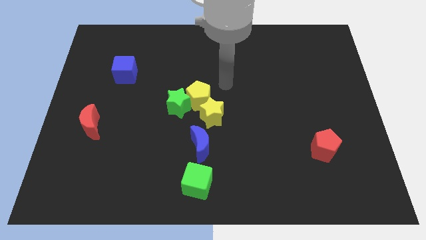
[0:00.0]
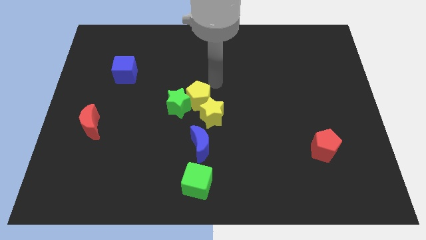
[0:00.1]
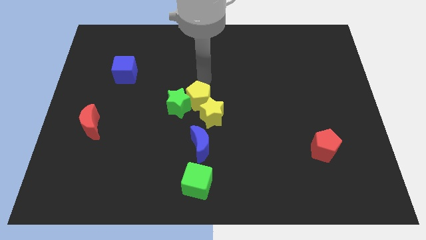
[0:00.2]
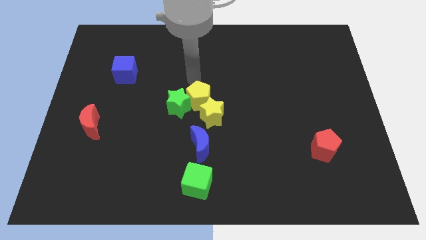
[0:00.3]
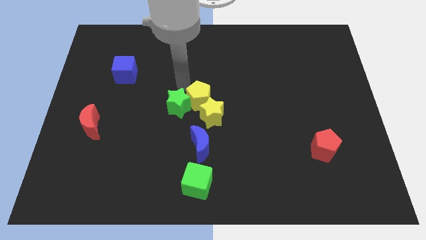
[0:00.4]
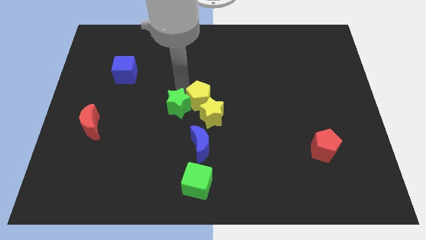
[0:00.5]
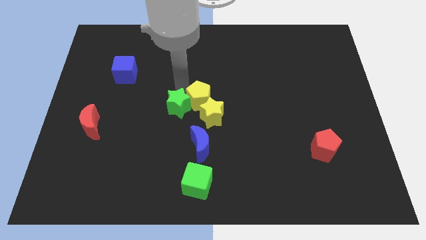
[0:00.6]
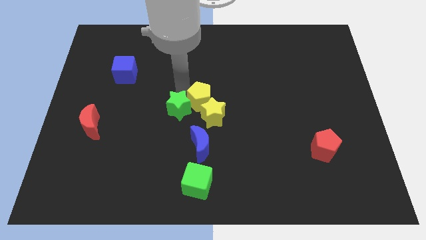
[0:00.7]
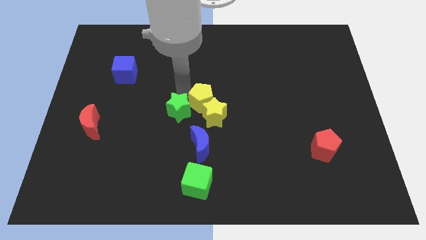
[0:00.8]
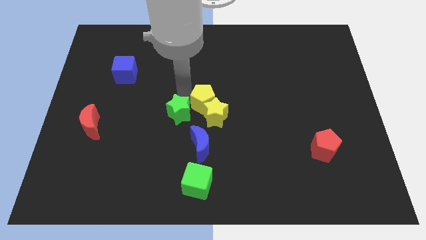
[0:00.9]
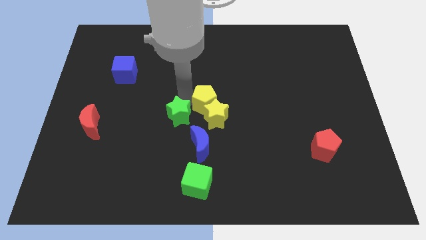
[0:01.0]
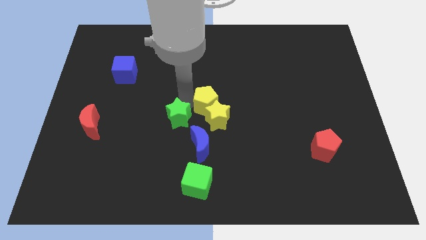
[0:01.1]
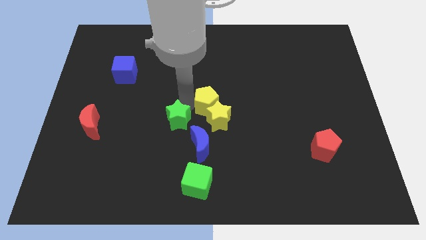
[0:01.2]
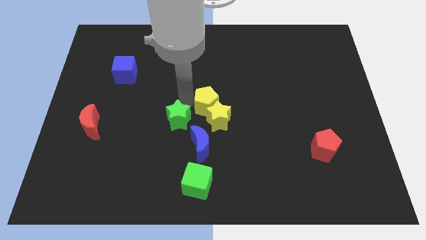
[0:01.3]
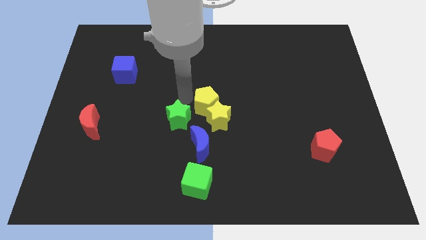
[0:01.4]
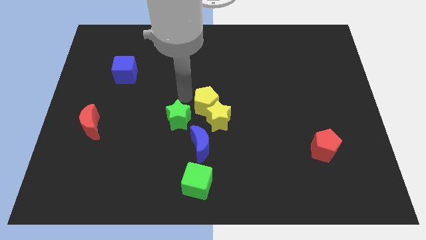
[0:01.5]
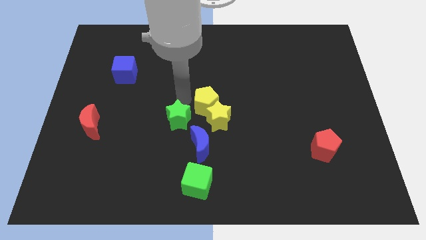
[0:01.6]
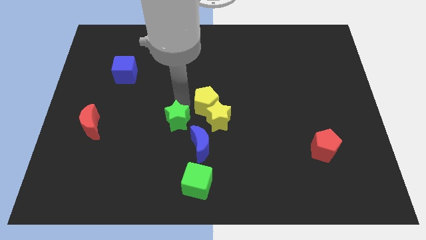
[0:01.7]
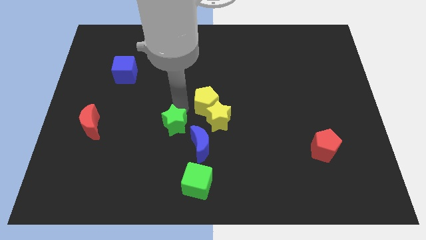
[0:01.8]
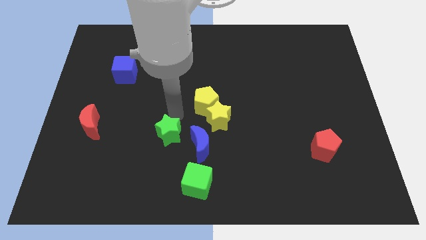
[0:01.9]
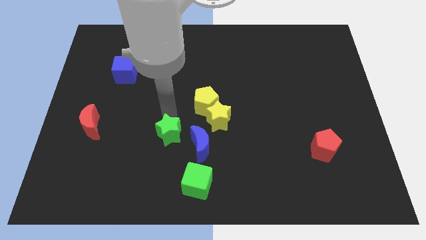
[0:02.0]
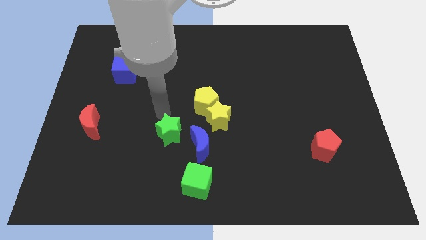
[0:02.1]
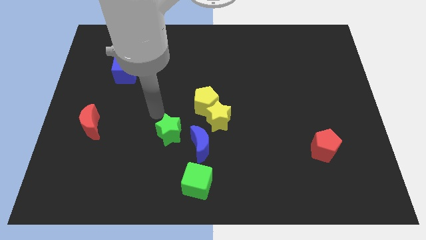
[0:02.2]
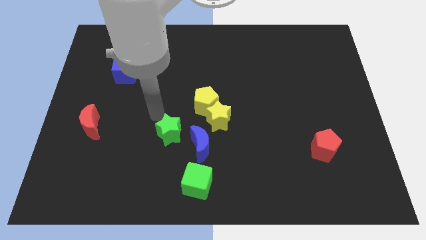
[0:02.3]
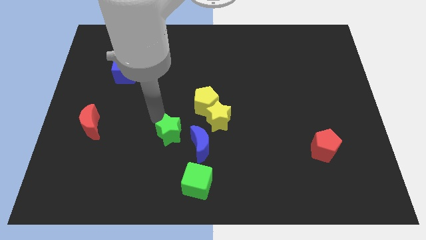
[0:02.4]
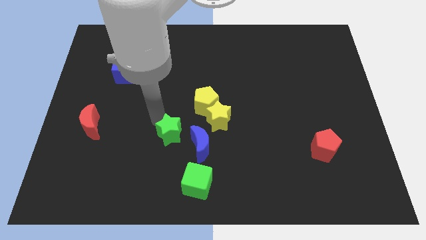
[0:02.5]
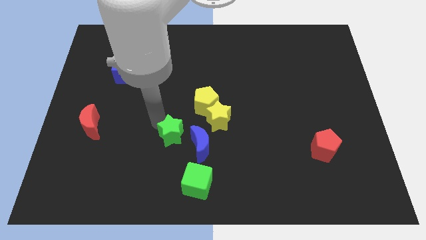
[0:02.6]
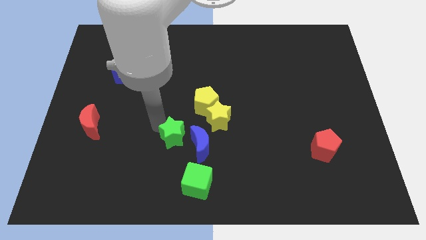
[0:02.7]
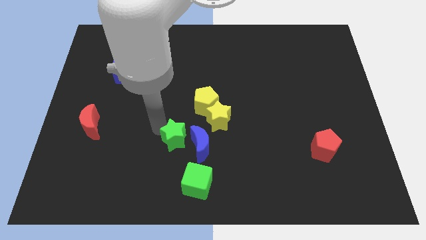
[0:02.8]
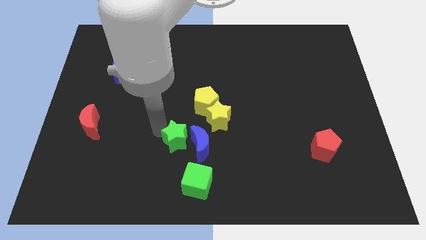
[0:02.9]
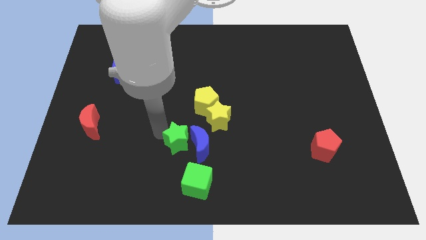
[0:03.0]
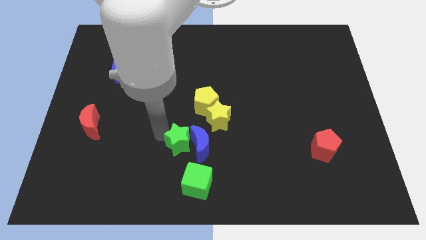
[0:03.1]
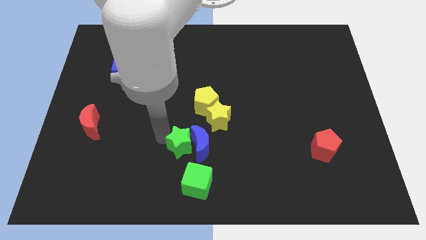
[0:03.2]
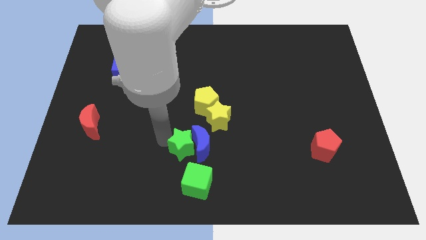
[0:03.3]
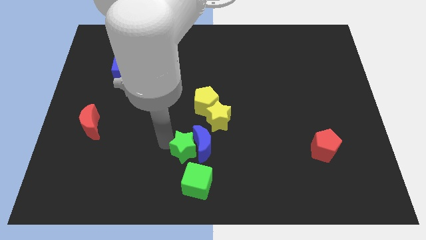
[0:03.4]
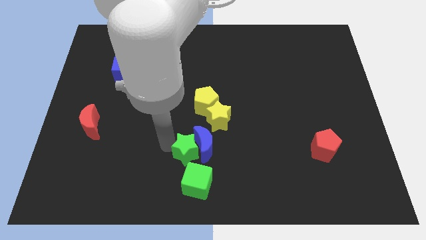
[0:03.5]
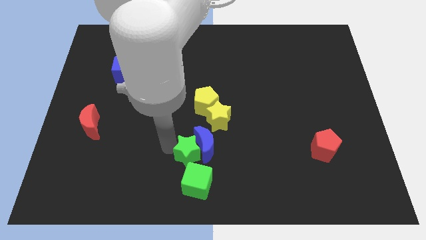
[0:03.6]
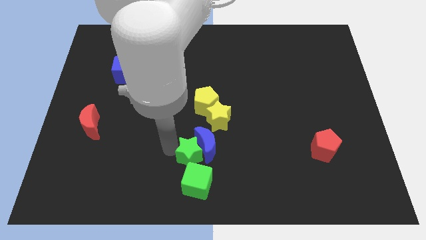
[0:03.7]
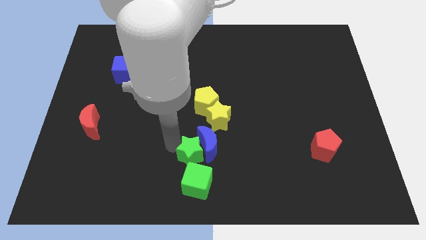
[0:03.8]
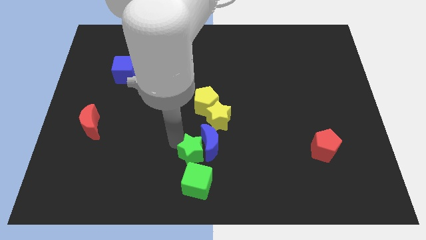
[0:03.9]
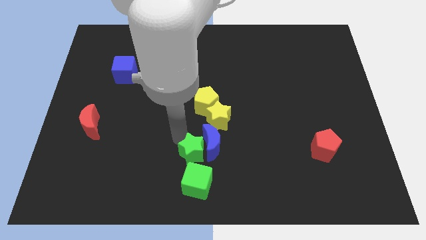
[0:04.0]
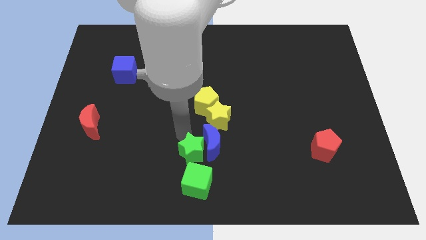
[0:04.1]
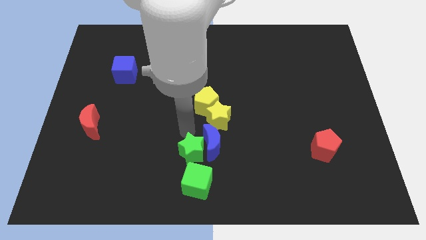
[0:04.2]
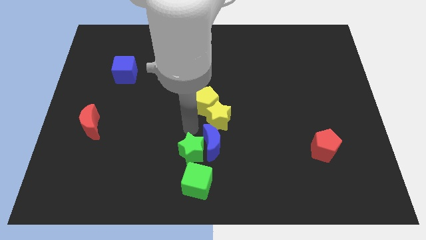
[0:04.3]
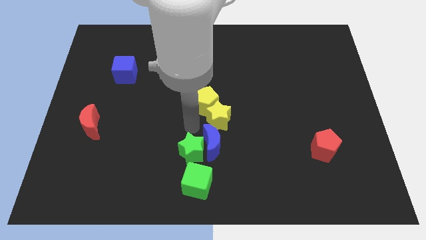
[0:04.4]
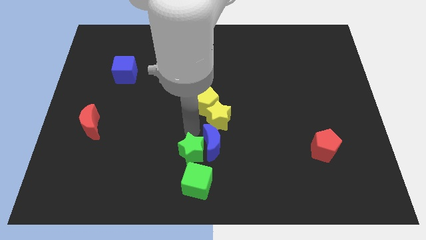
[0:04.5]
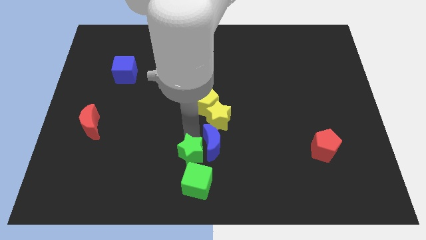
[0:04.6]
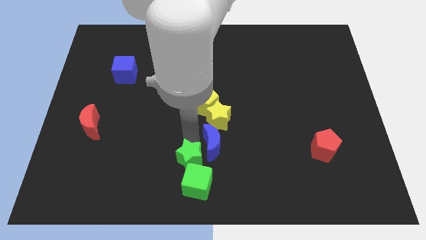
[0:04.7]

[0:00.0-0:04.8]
move the green star next to the green cube

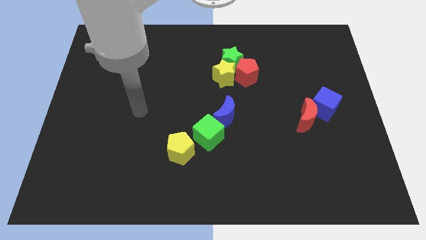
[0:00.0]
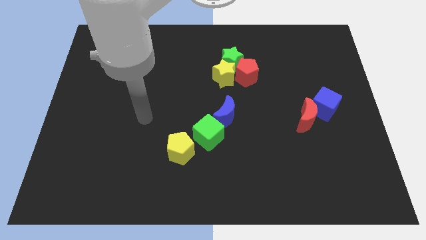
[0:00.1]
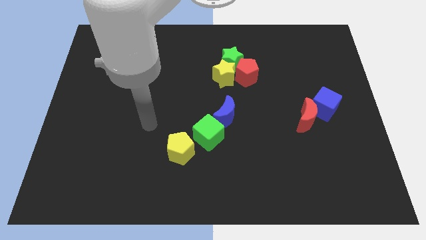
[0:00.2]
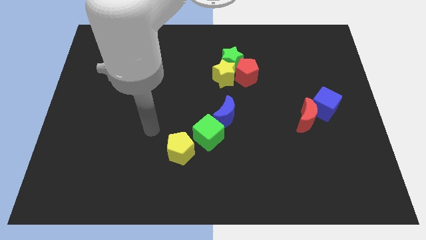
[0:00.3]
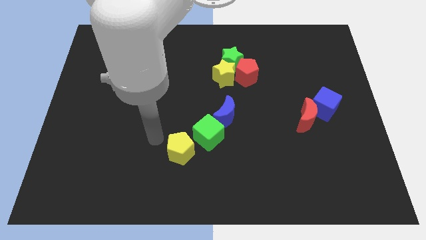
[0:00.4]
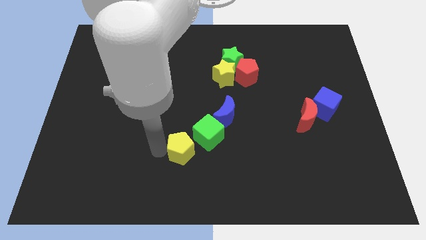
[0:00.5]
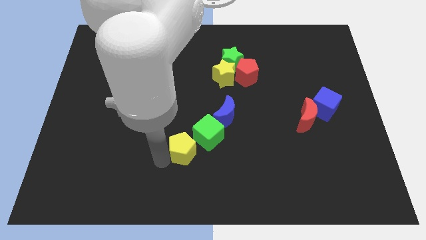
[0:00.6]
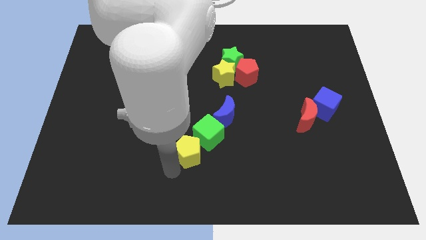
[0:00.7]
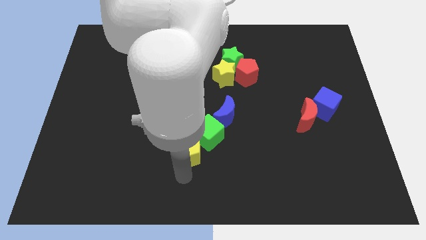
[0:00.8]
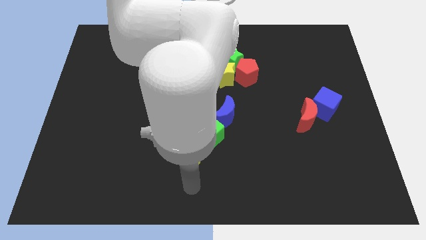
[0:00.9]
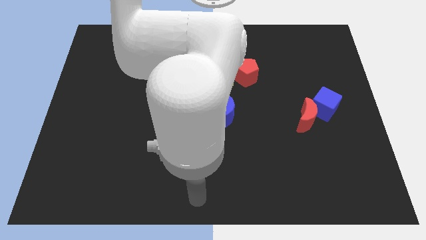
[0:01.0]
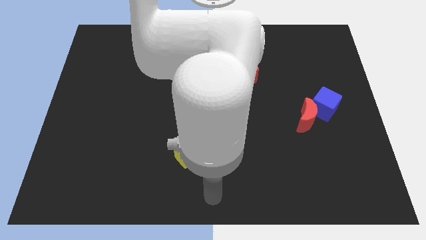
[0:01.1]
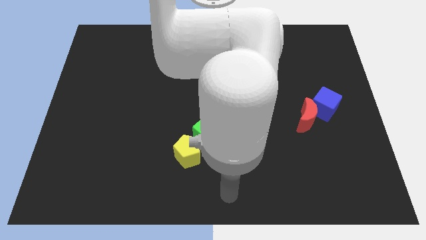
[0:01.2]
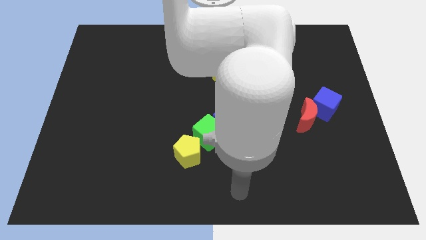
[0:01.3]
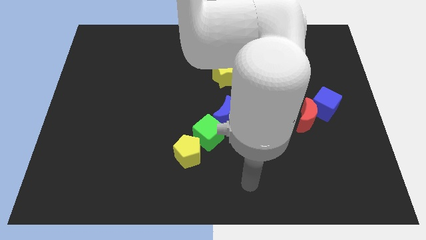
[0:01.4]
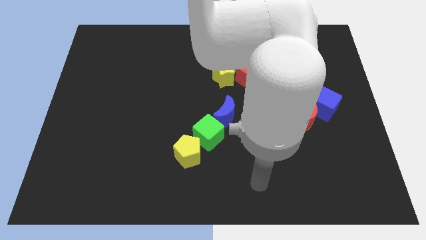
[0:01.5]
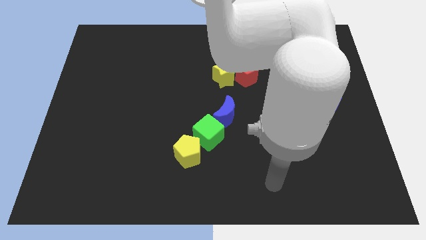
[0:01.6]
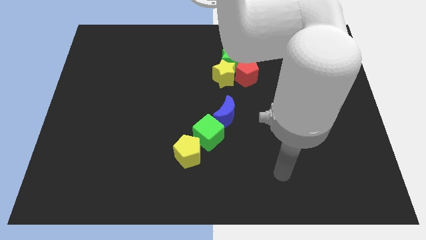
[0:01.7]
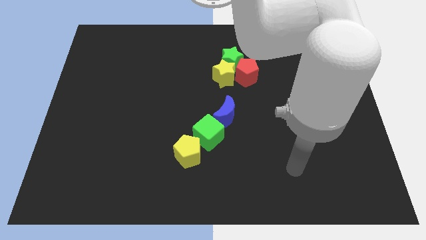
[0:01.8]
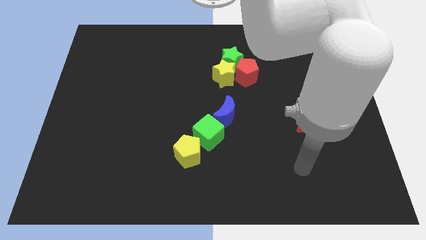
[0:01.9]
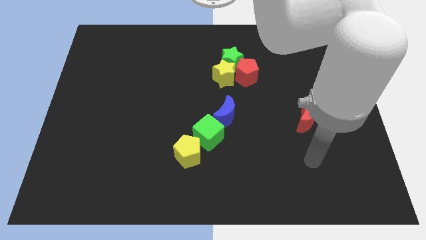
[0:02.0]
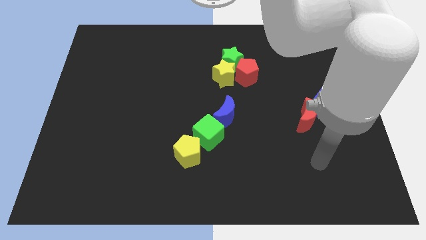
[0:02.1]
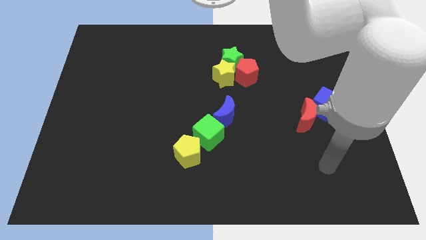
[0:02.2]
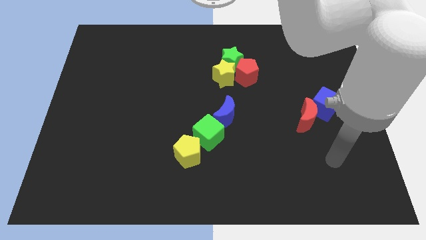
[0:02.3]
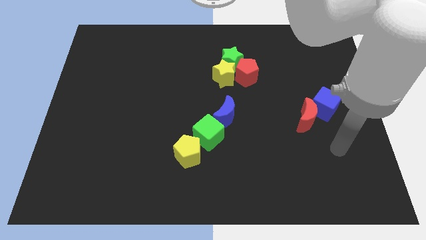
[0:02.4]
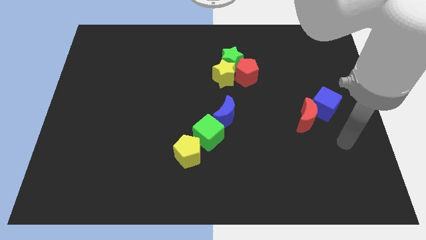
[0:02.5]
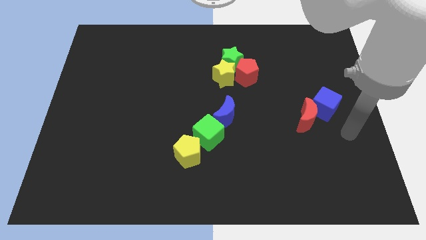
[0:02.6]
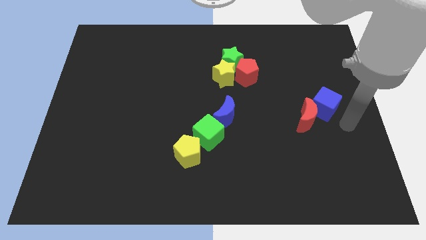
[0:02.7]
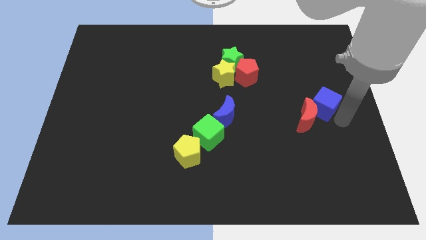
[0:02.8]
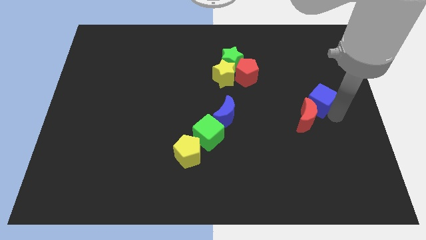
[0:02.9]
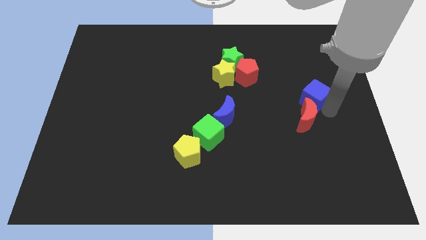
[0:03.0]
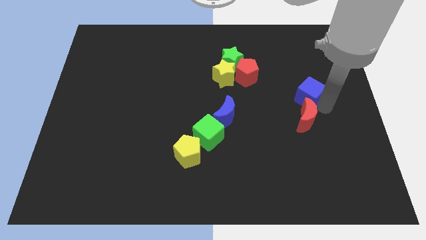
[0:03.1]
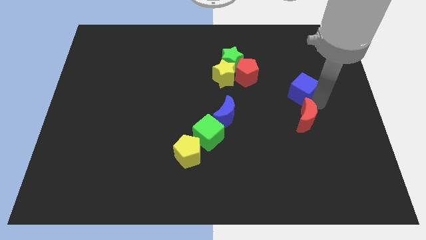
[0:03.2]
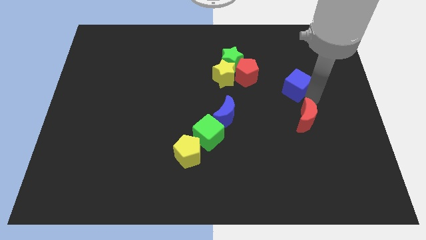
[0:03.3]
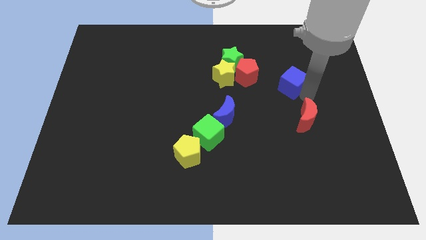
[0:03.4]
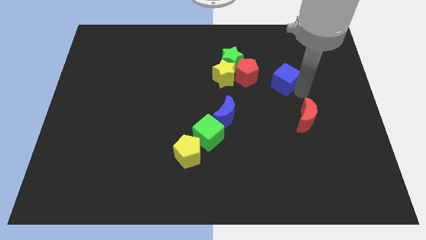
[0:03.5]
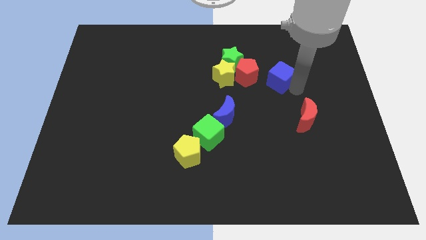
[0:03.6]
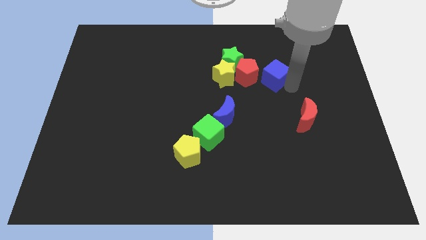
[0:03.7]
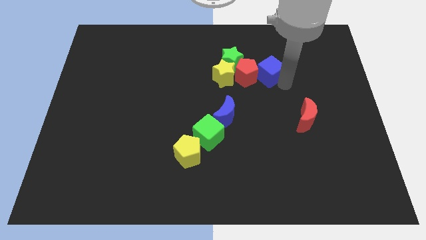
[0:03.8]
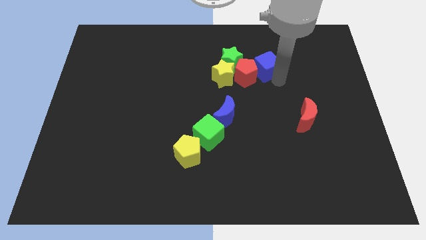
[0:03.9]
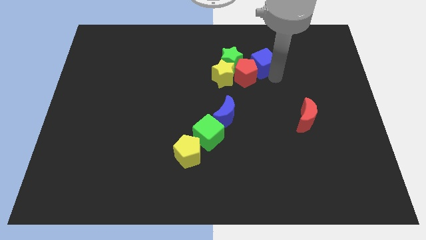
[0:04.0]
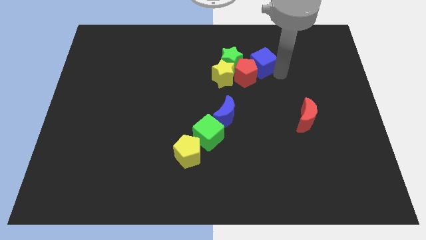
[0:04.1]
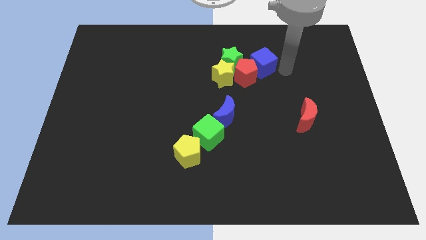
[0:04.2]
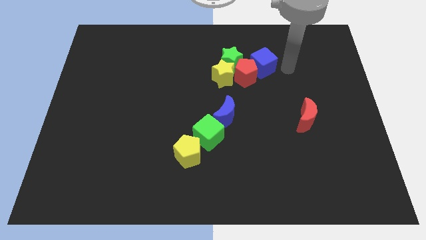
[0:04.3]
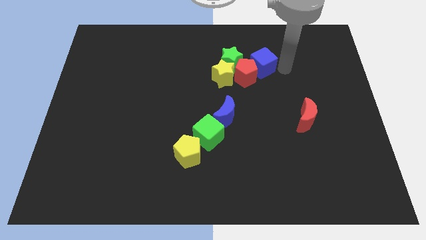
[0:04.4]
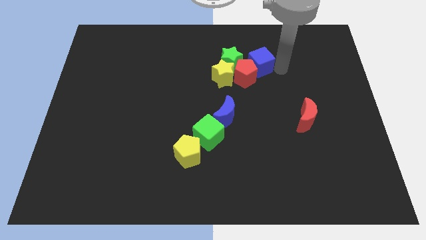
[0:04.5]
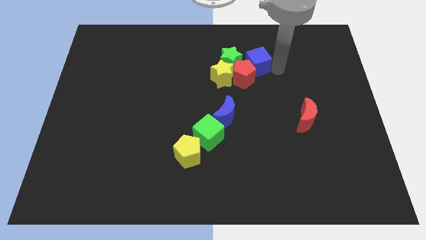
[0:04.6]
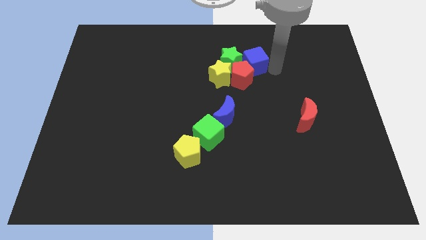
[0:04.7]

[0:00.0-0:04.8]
slide the blue cube to the green star
